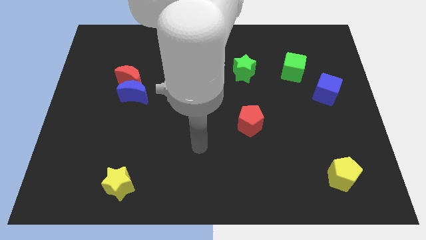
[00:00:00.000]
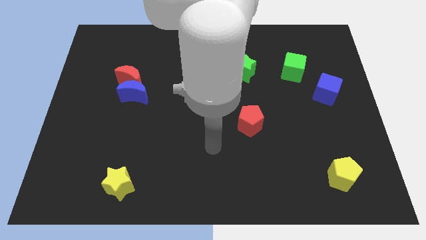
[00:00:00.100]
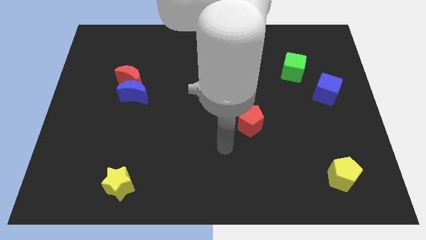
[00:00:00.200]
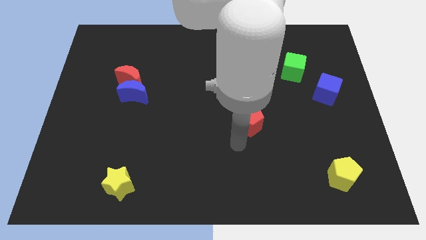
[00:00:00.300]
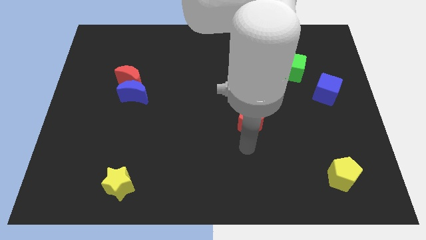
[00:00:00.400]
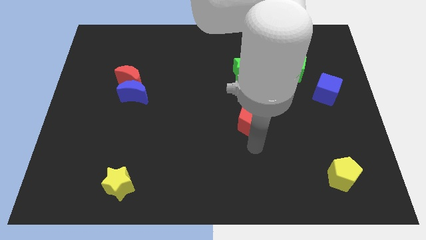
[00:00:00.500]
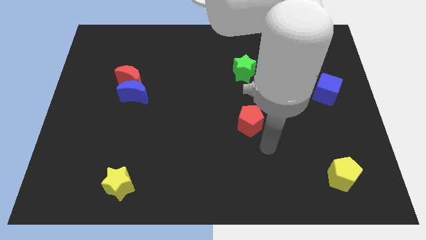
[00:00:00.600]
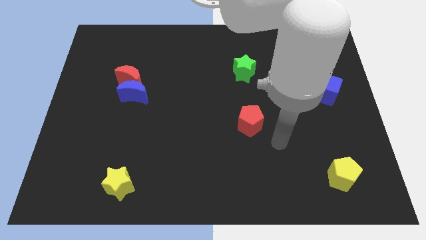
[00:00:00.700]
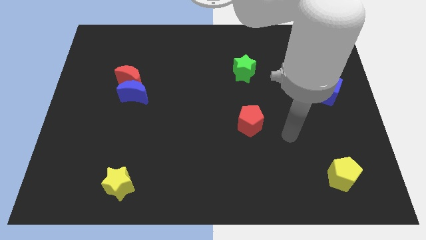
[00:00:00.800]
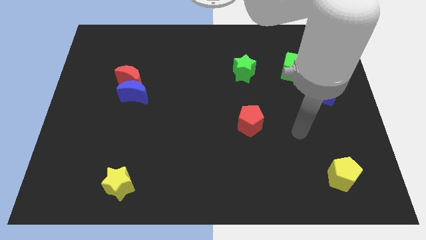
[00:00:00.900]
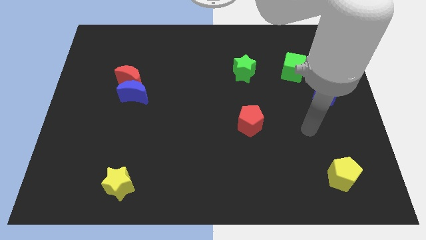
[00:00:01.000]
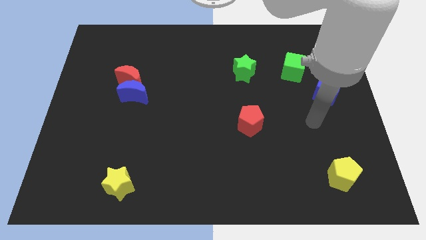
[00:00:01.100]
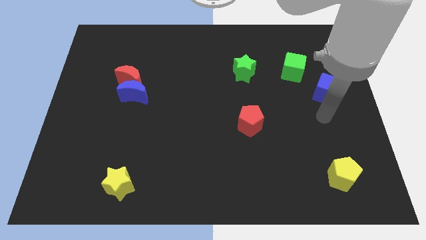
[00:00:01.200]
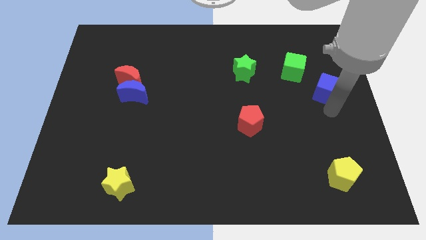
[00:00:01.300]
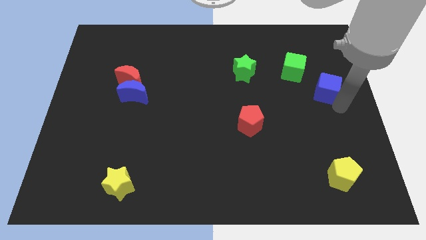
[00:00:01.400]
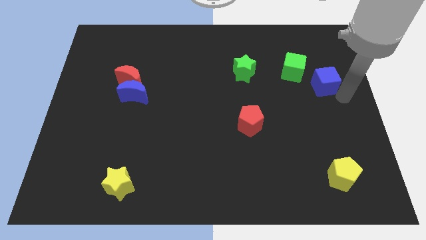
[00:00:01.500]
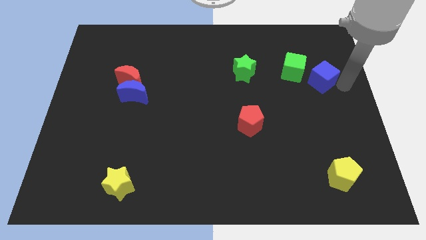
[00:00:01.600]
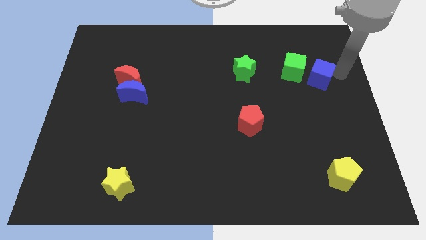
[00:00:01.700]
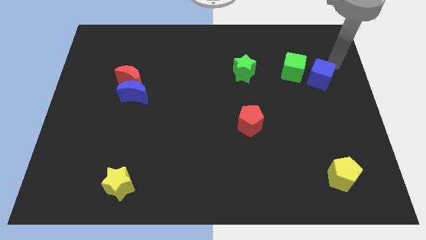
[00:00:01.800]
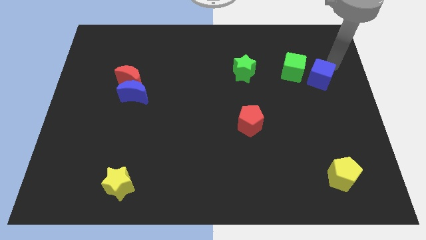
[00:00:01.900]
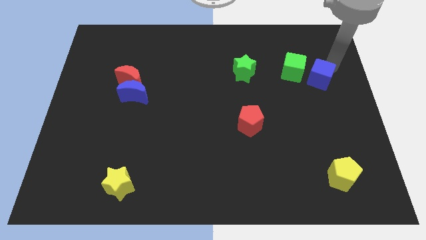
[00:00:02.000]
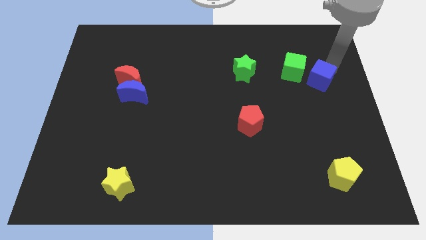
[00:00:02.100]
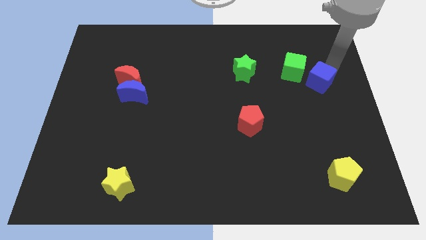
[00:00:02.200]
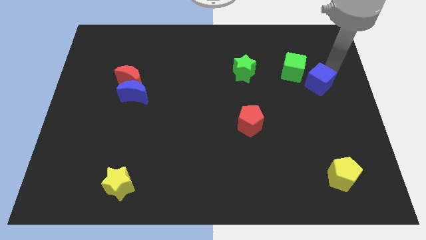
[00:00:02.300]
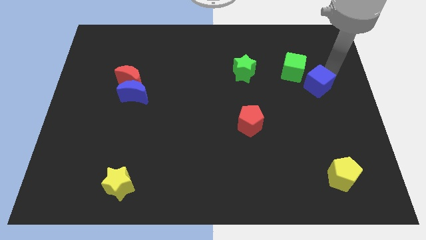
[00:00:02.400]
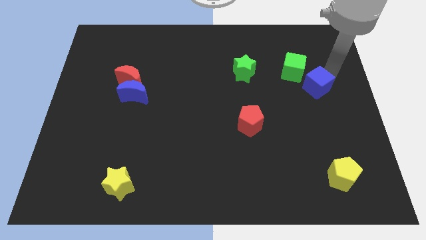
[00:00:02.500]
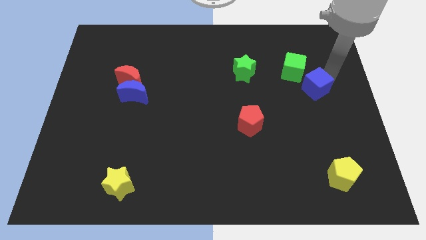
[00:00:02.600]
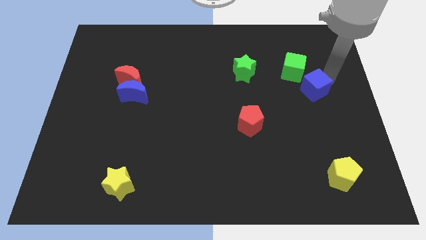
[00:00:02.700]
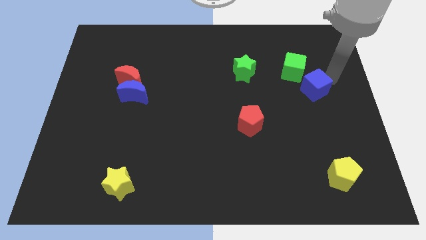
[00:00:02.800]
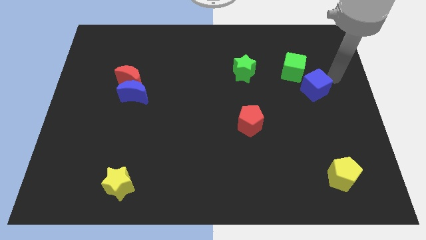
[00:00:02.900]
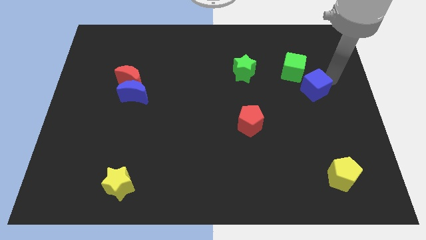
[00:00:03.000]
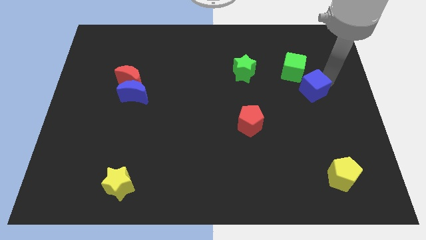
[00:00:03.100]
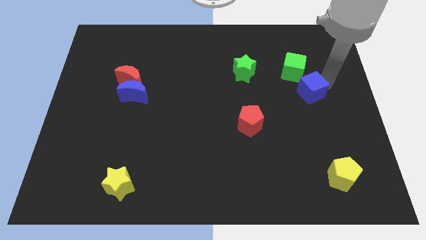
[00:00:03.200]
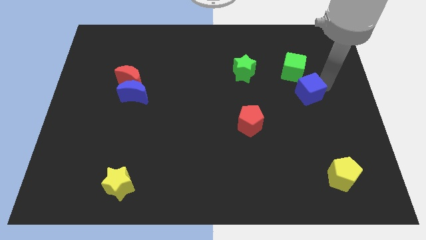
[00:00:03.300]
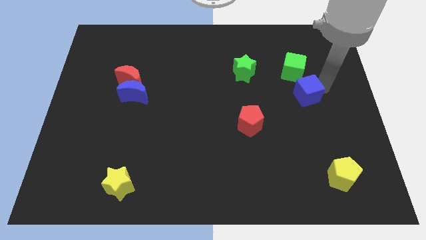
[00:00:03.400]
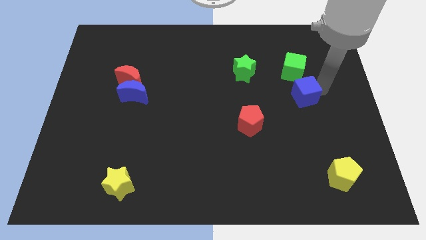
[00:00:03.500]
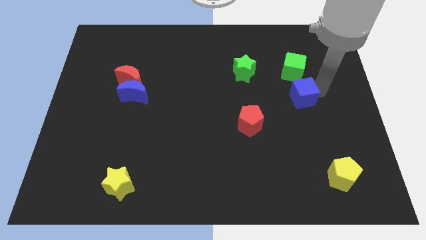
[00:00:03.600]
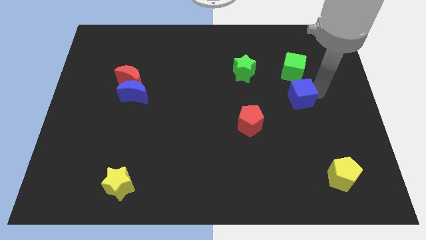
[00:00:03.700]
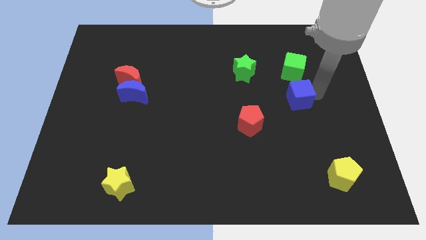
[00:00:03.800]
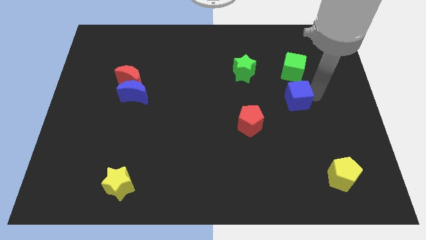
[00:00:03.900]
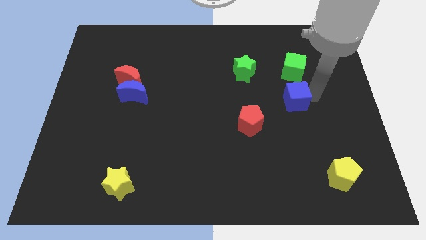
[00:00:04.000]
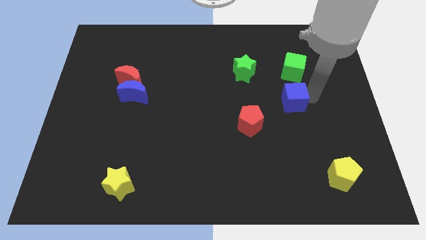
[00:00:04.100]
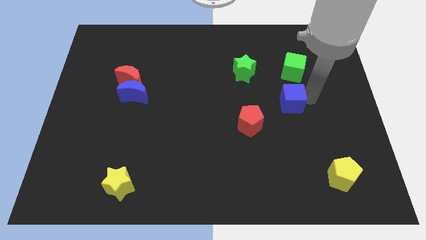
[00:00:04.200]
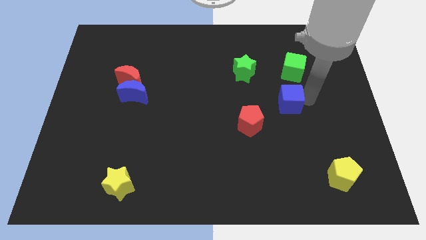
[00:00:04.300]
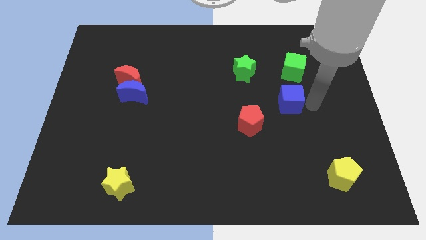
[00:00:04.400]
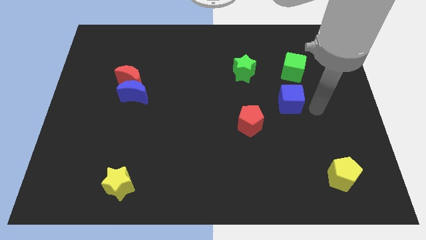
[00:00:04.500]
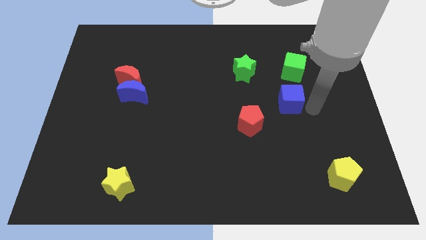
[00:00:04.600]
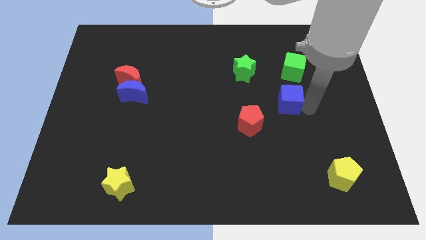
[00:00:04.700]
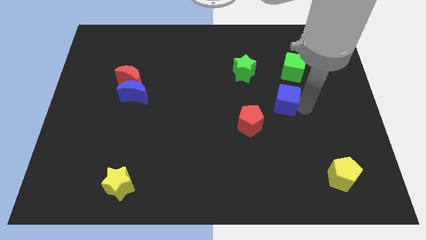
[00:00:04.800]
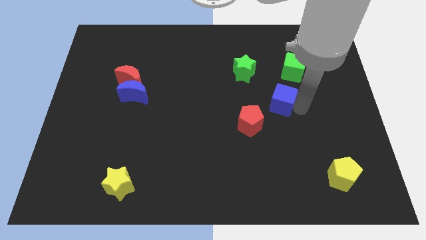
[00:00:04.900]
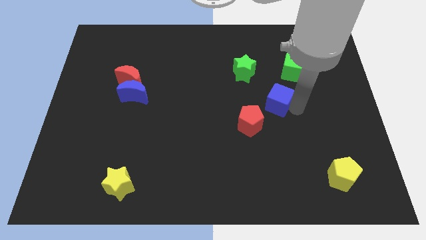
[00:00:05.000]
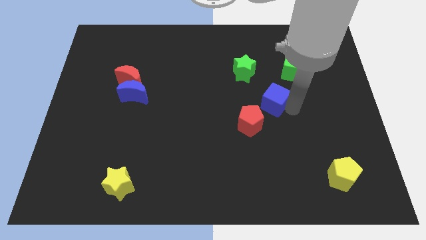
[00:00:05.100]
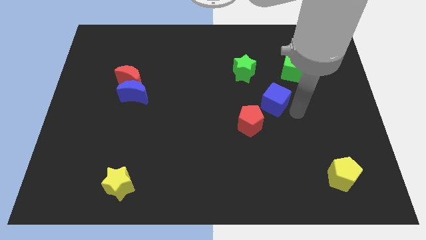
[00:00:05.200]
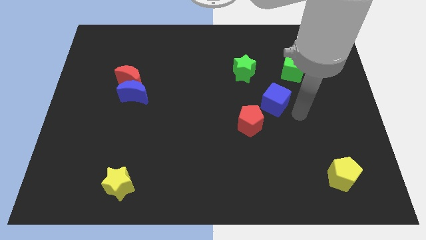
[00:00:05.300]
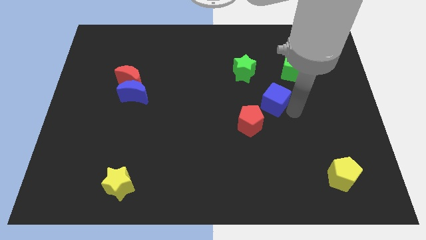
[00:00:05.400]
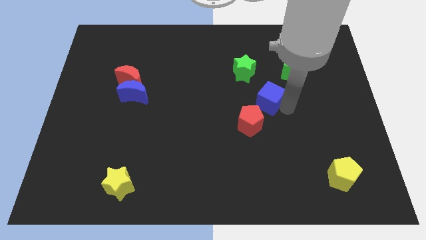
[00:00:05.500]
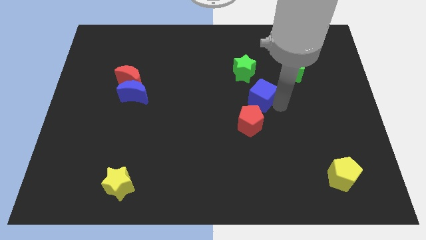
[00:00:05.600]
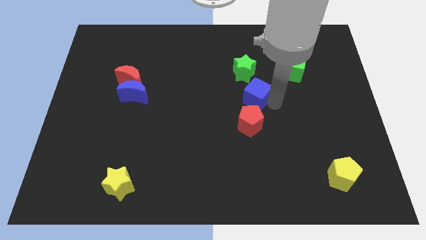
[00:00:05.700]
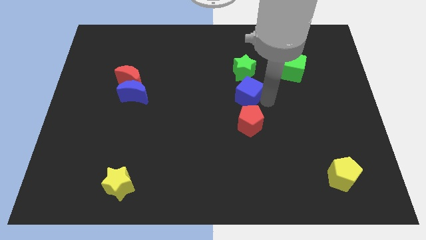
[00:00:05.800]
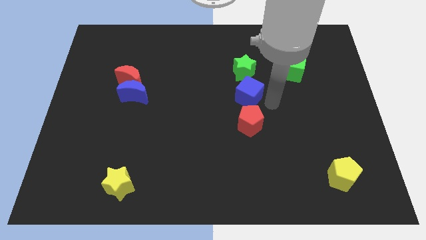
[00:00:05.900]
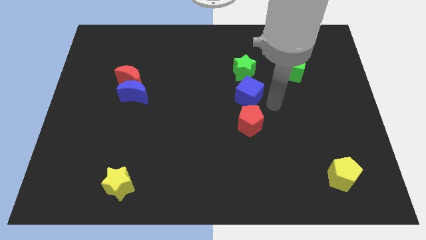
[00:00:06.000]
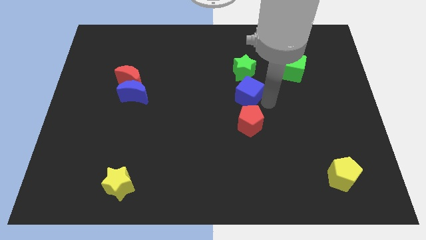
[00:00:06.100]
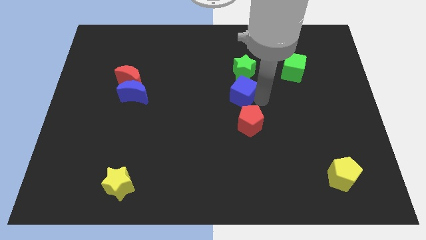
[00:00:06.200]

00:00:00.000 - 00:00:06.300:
slide the blue cube to the left

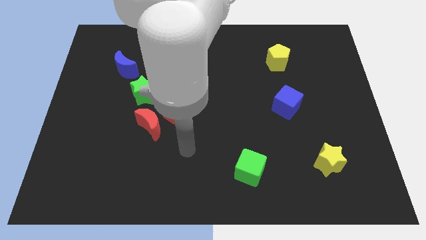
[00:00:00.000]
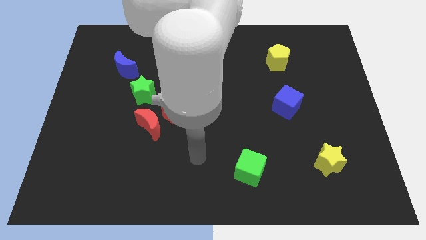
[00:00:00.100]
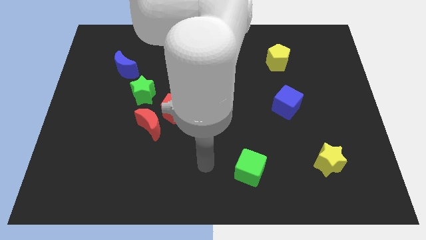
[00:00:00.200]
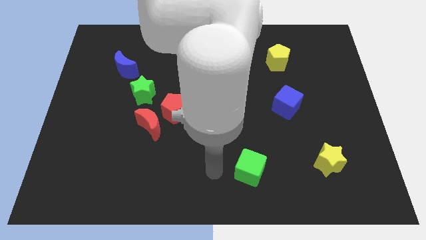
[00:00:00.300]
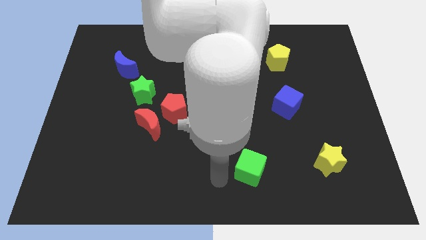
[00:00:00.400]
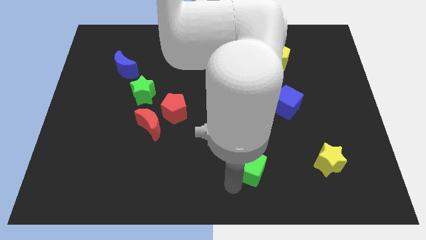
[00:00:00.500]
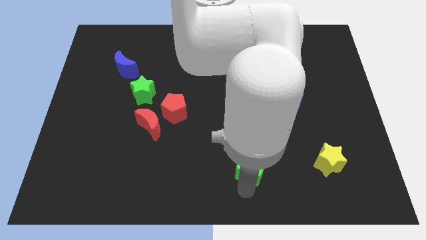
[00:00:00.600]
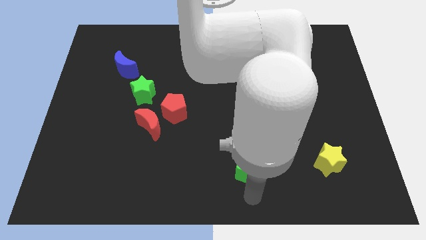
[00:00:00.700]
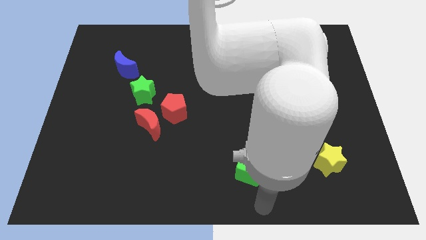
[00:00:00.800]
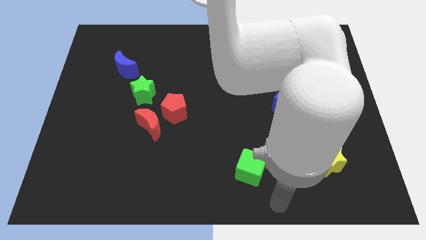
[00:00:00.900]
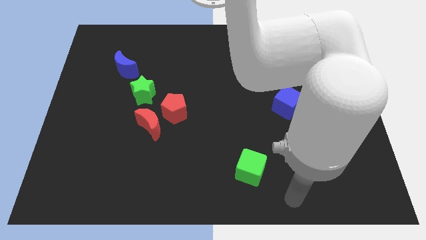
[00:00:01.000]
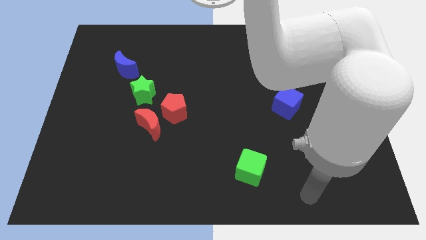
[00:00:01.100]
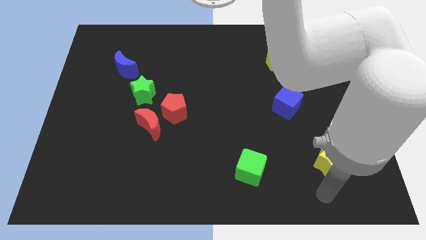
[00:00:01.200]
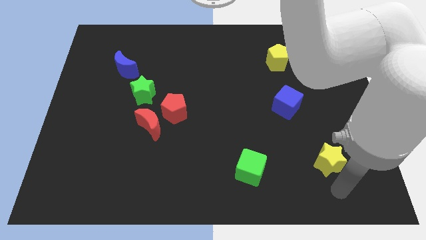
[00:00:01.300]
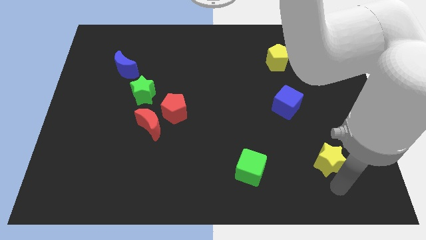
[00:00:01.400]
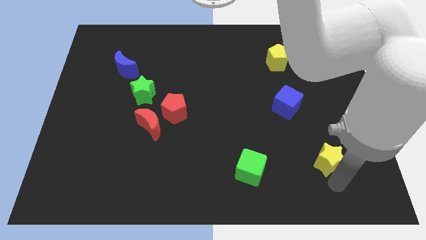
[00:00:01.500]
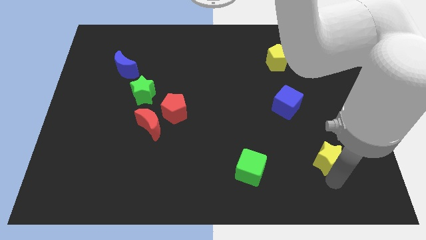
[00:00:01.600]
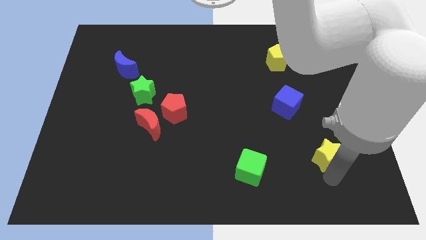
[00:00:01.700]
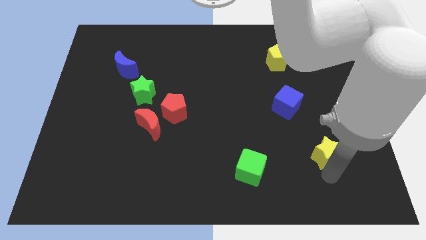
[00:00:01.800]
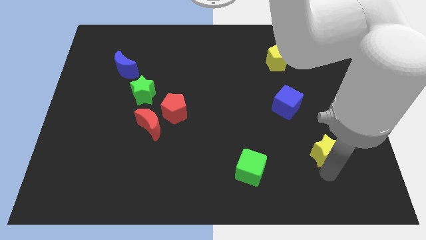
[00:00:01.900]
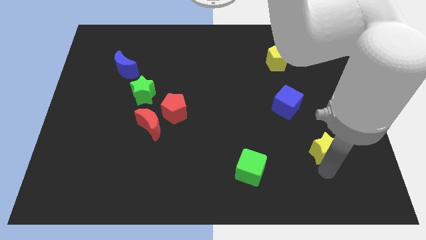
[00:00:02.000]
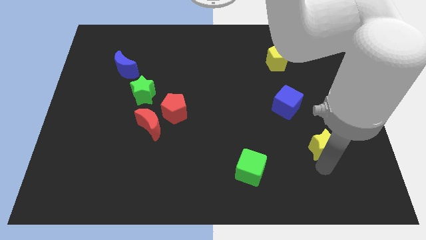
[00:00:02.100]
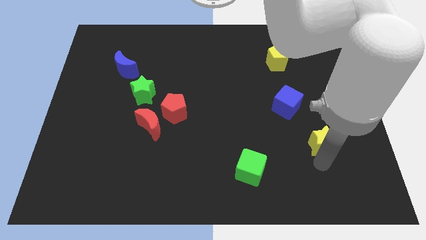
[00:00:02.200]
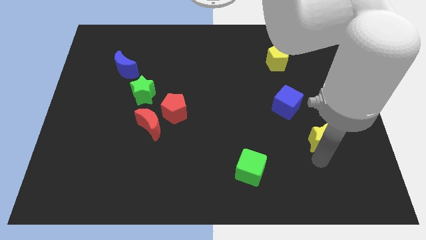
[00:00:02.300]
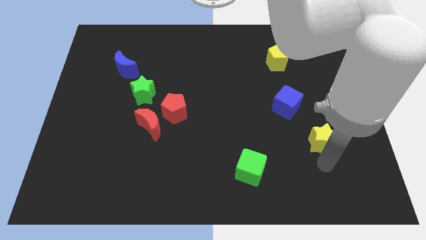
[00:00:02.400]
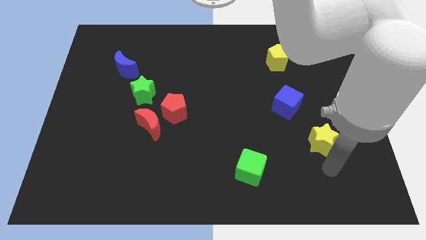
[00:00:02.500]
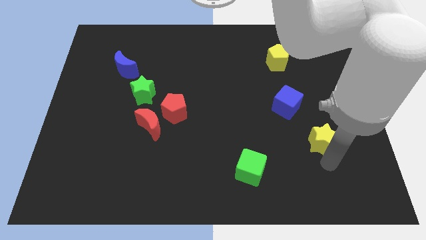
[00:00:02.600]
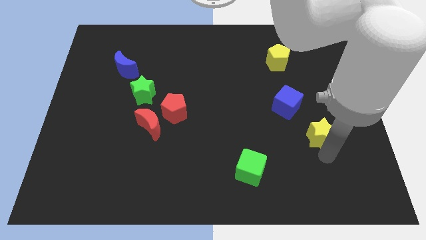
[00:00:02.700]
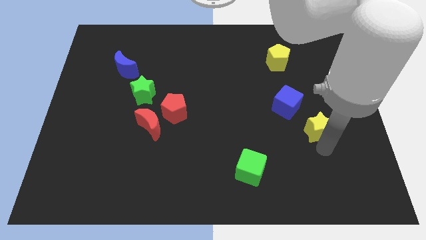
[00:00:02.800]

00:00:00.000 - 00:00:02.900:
slide the yellow star a little bit upwards
